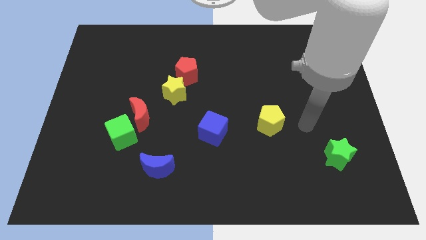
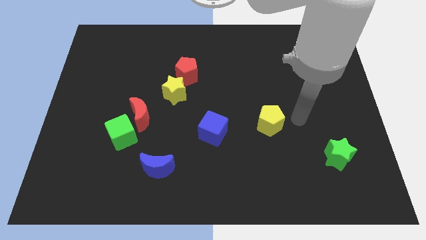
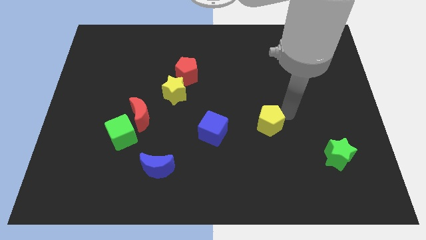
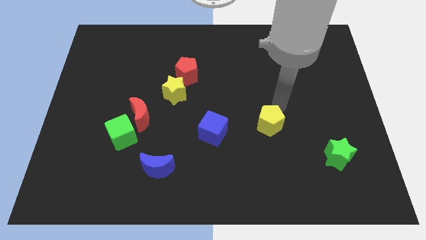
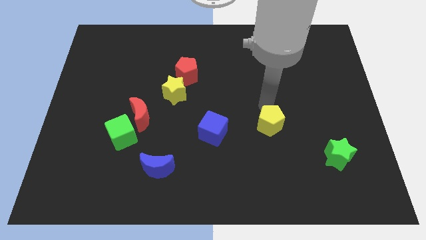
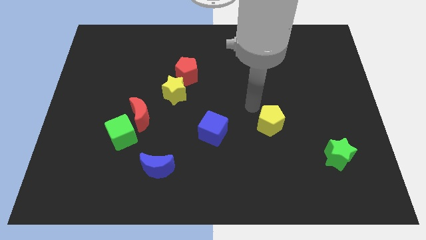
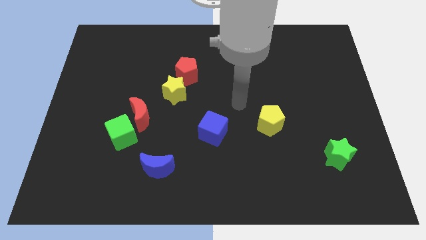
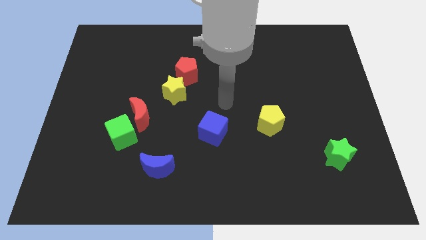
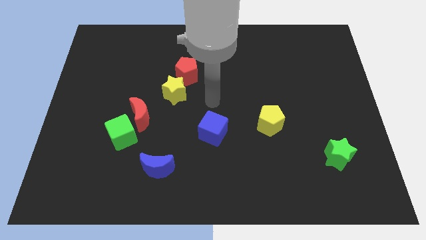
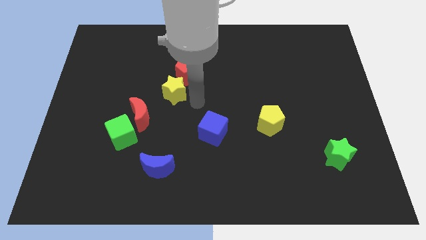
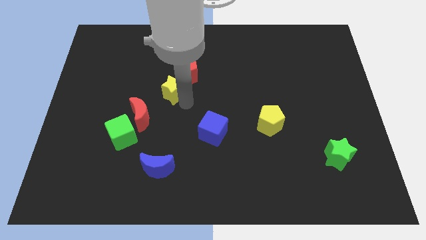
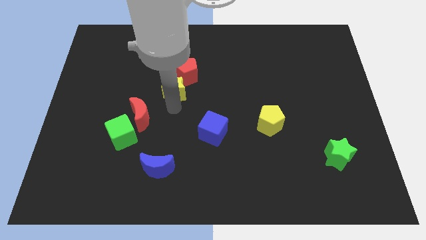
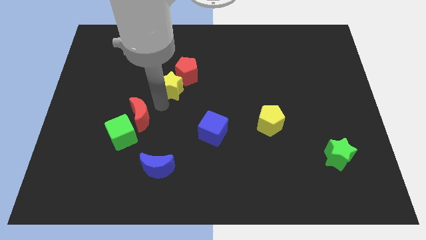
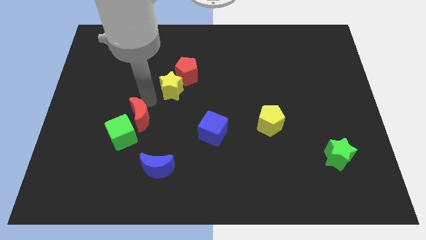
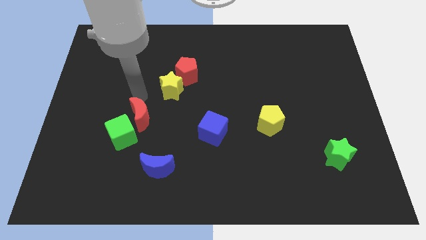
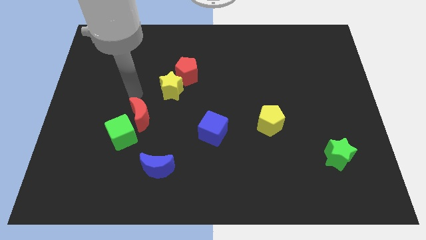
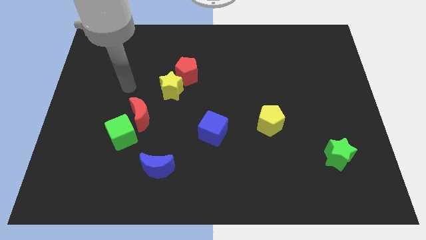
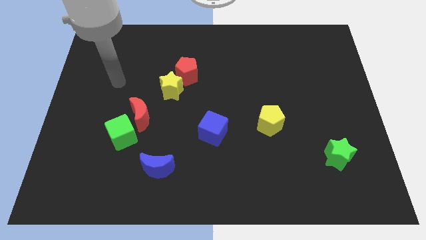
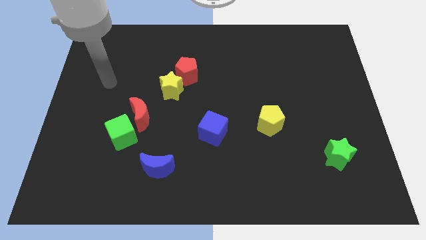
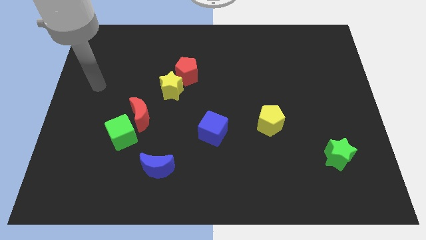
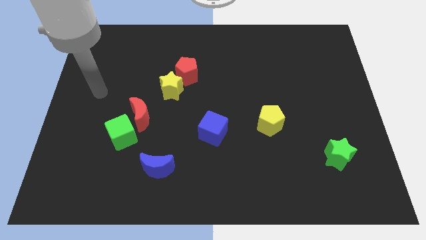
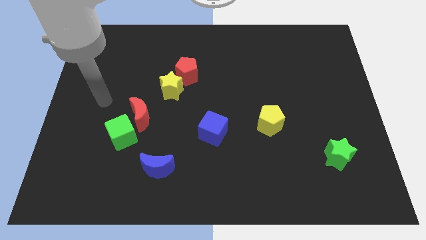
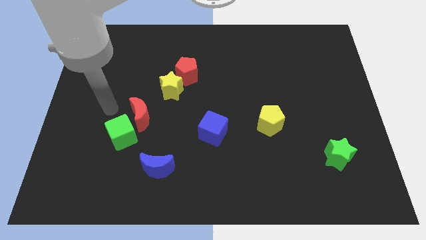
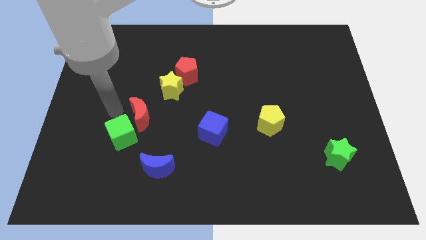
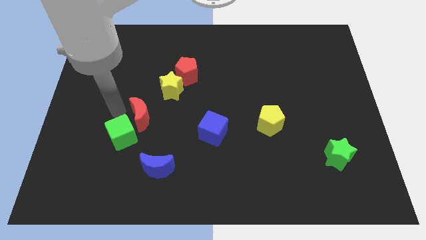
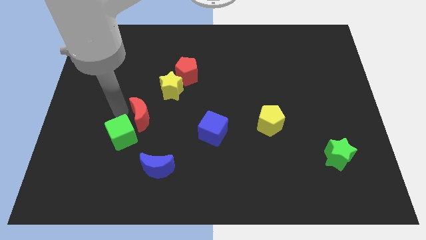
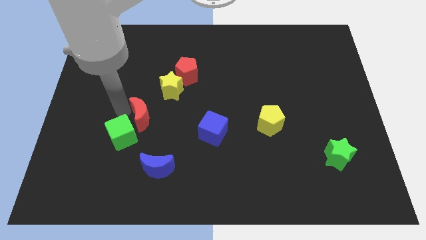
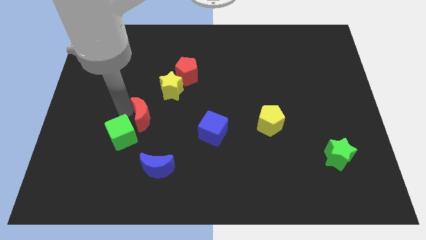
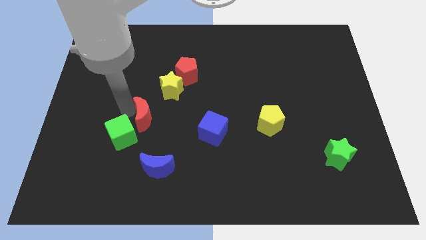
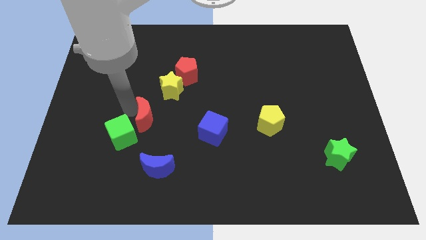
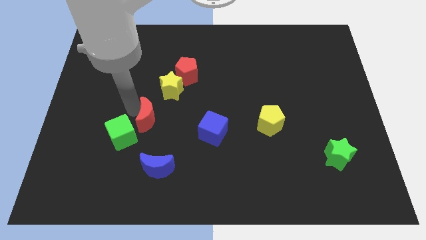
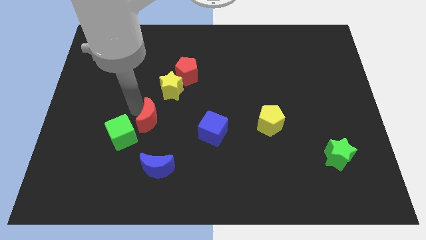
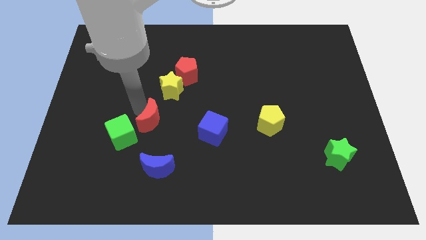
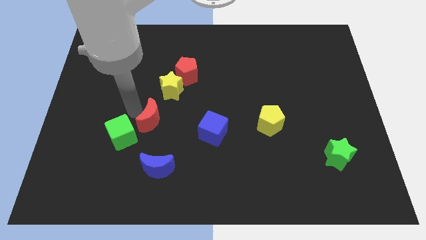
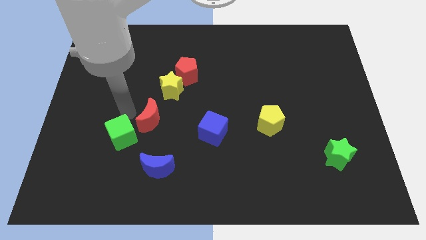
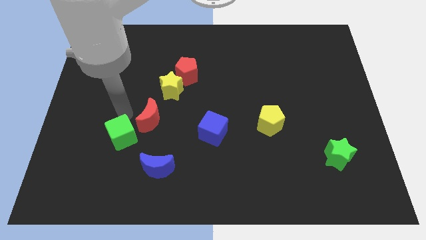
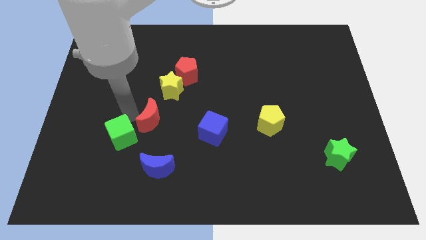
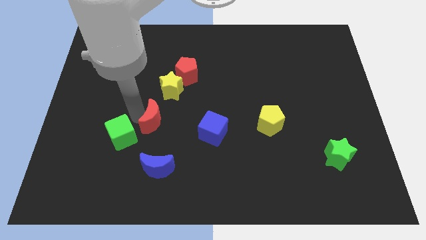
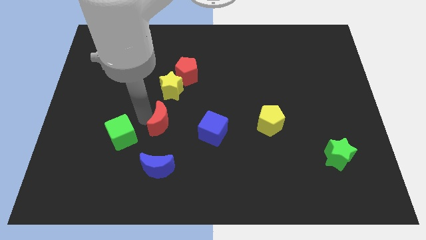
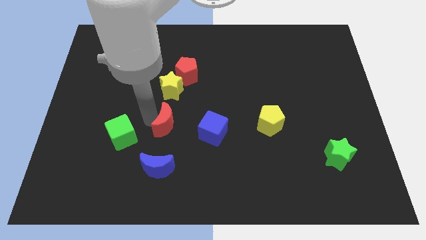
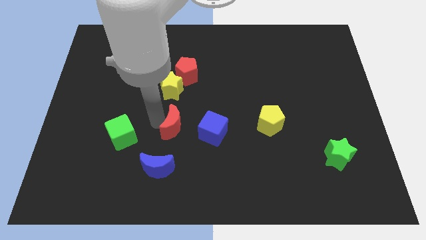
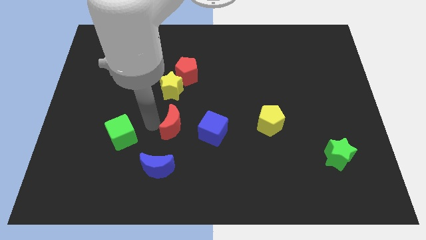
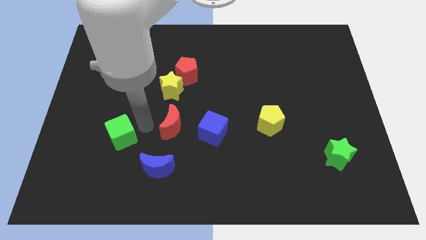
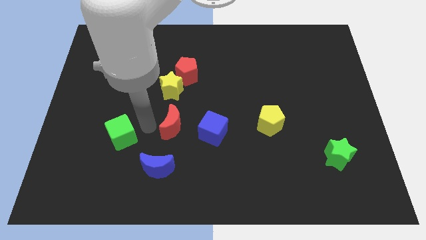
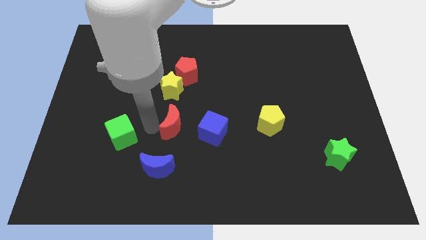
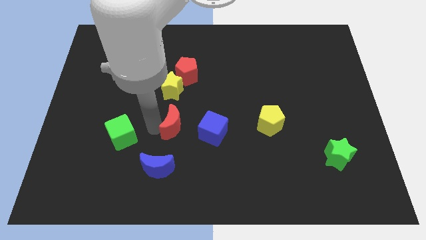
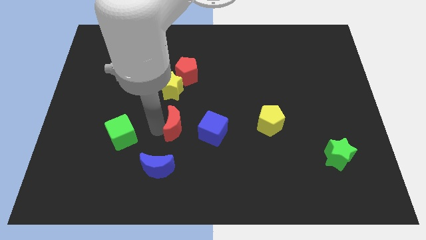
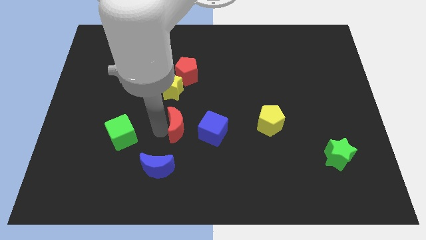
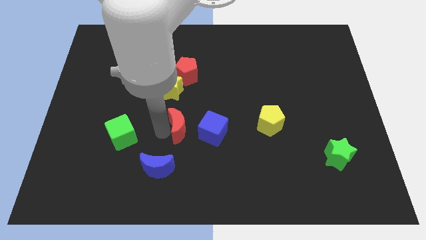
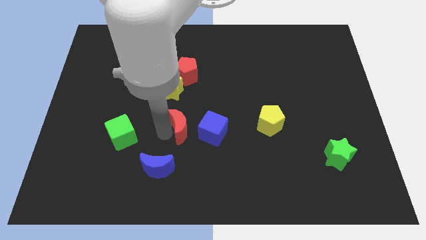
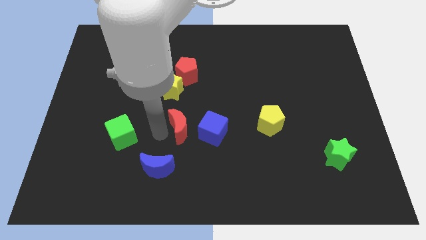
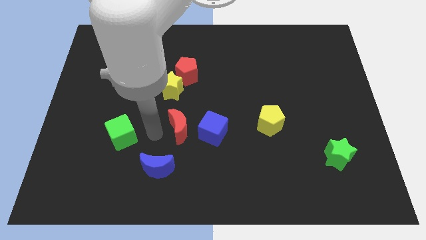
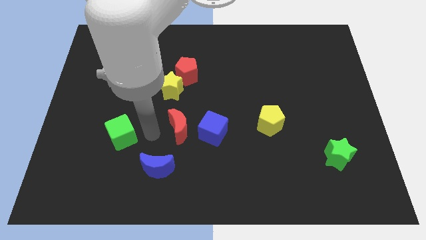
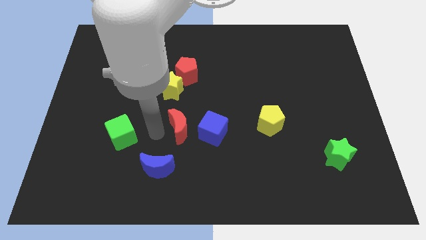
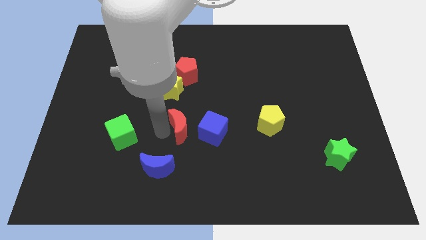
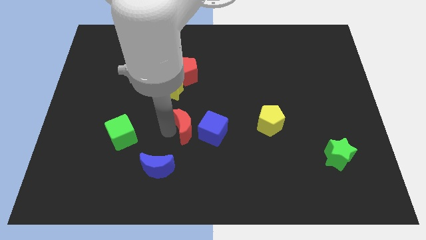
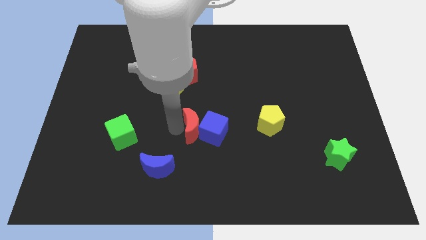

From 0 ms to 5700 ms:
put the red moon towards the blue cube

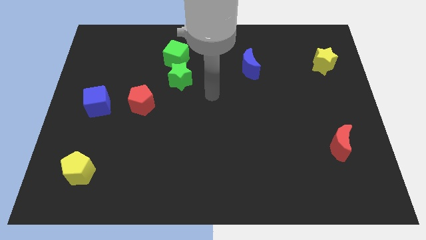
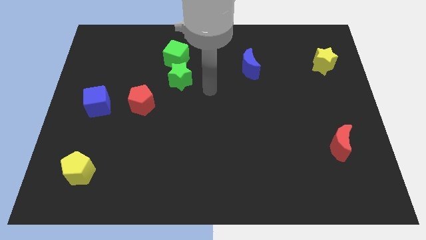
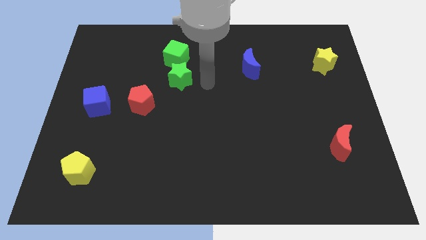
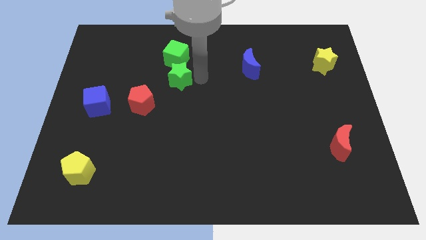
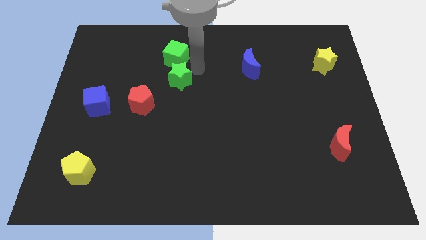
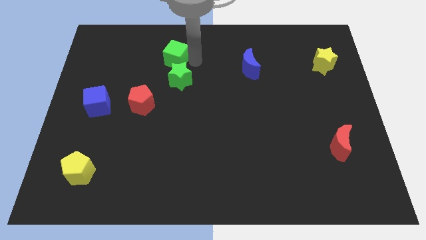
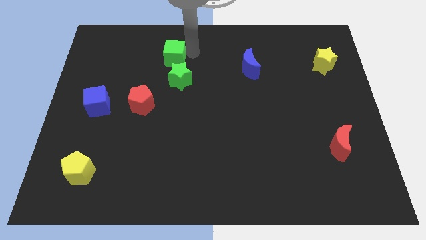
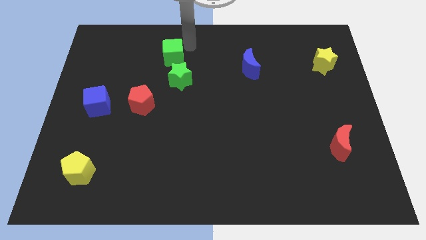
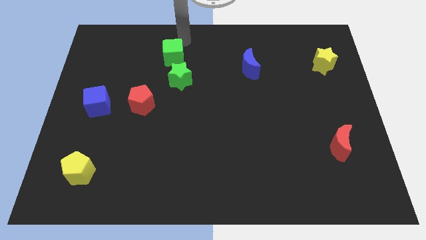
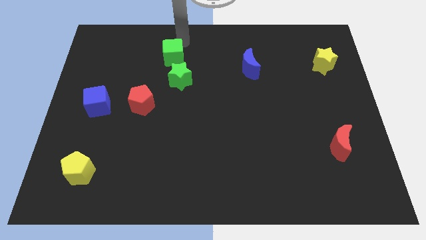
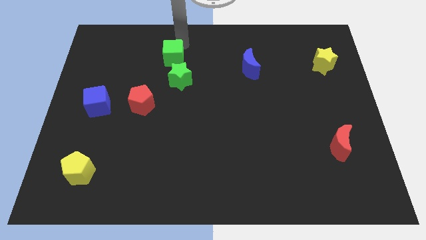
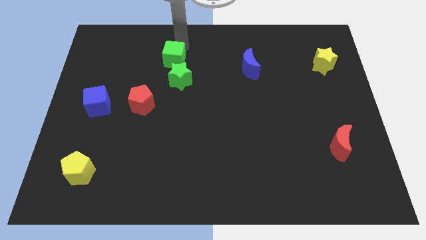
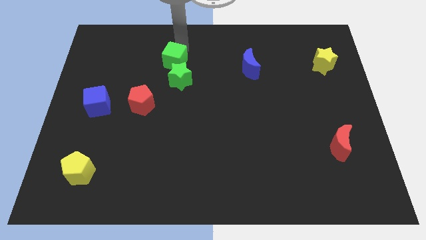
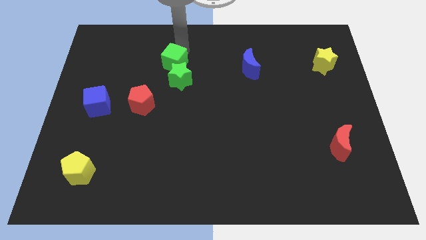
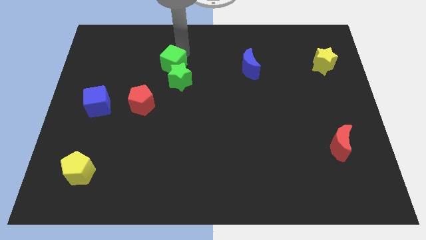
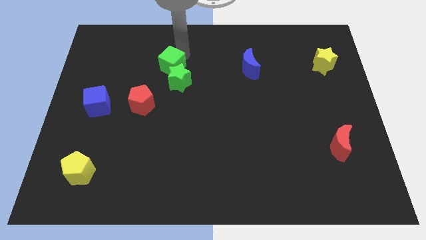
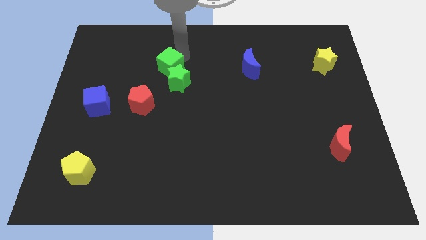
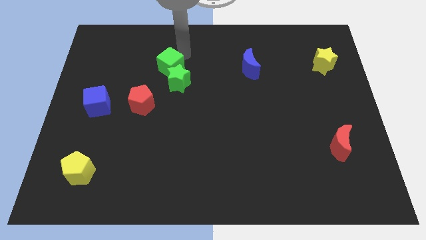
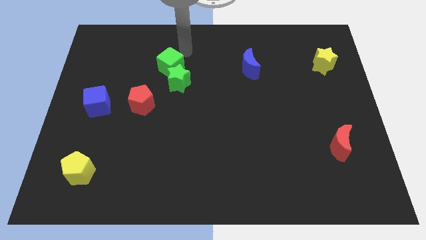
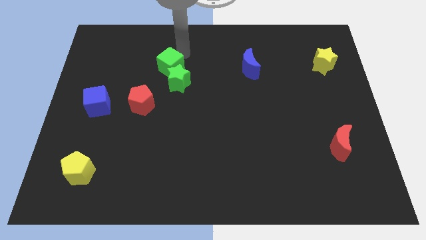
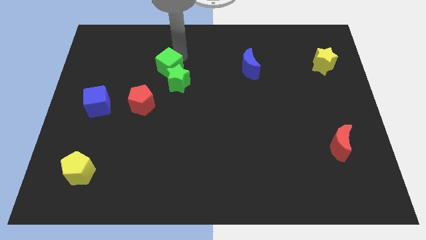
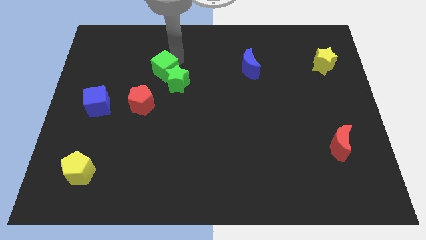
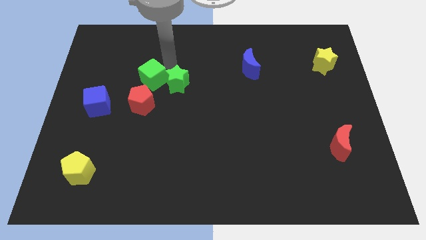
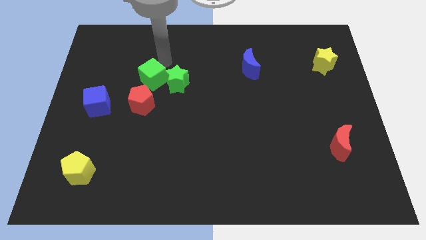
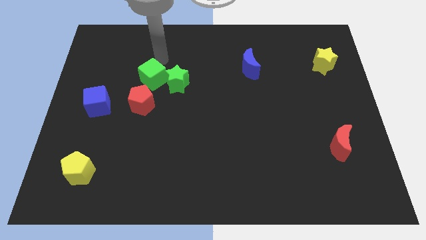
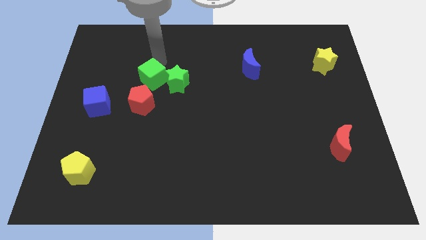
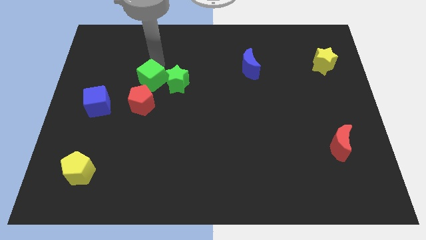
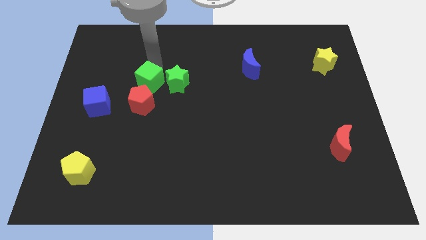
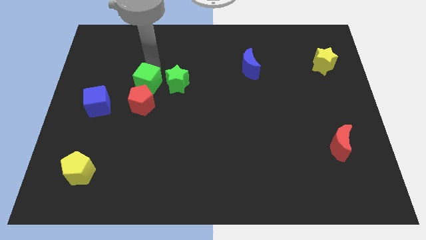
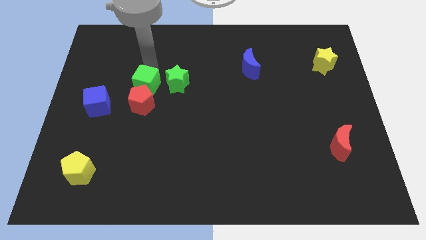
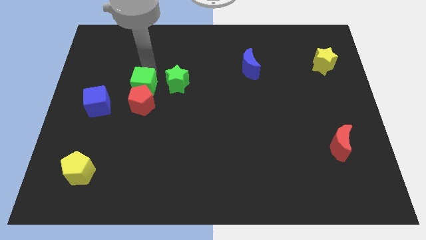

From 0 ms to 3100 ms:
put the green cube towards the red pentagon
